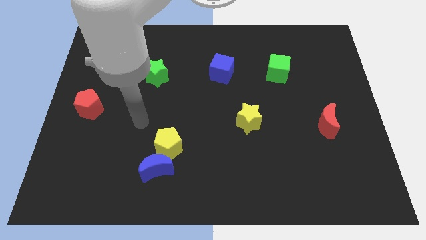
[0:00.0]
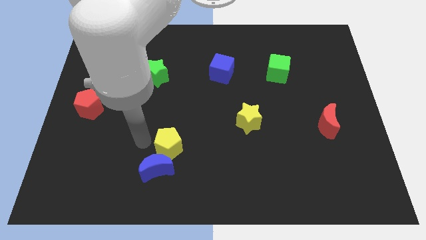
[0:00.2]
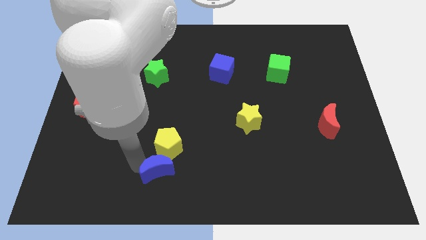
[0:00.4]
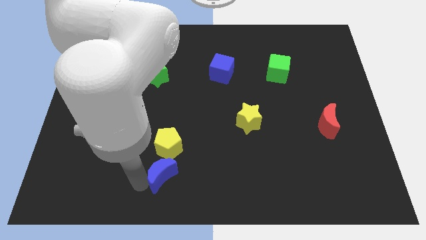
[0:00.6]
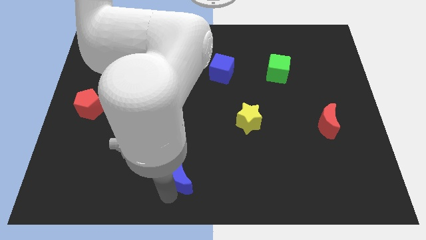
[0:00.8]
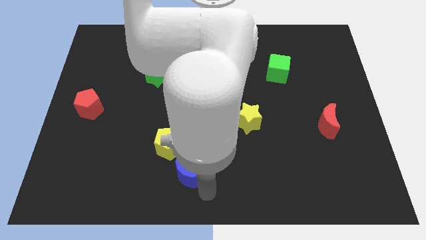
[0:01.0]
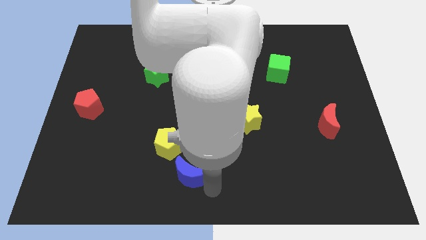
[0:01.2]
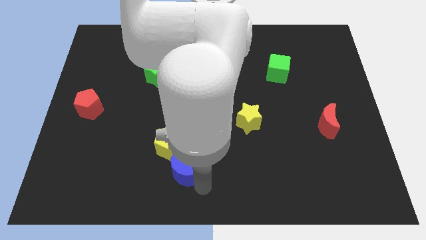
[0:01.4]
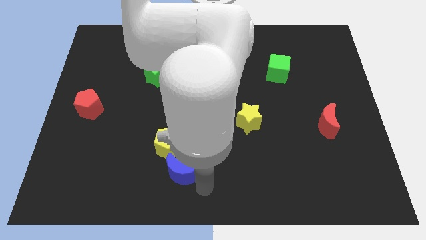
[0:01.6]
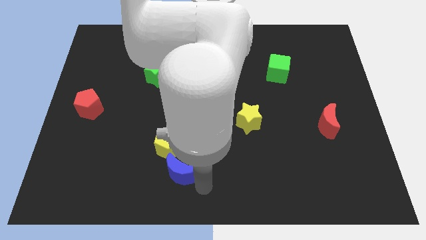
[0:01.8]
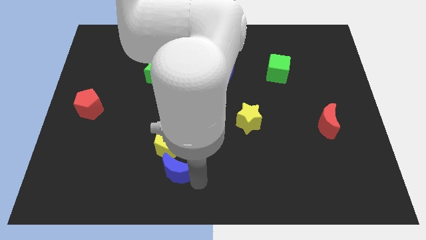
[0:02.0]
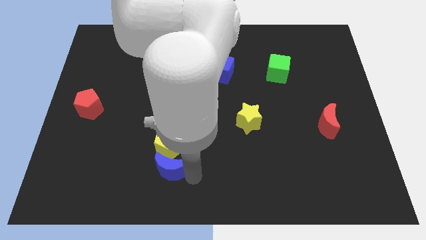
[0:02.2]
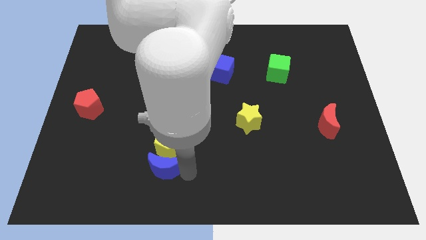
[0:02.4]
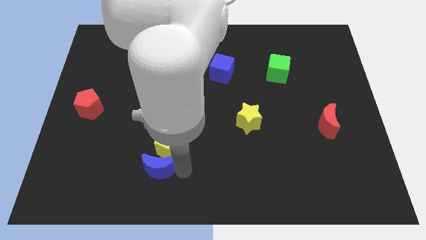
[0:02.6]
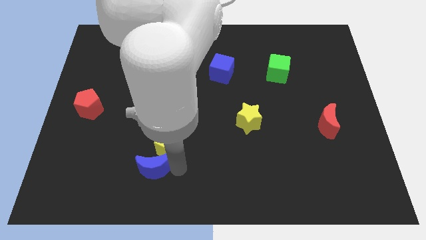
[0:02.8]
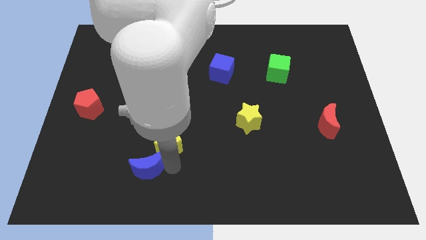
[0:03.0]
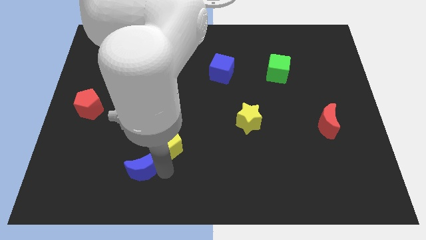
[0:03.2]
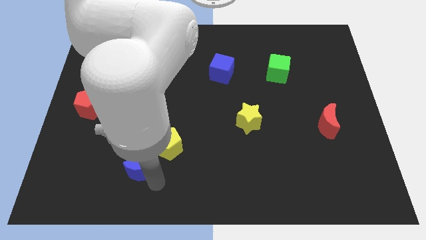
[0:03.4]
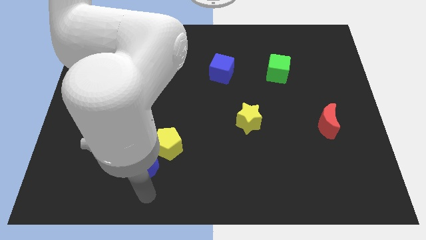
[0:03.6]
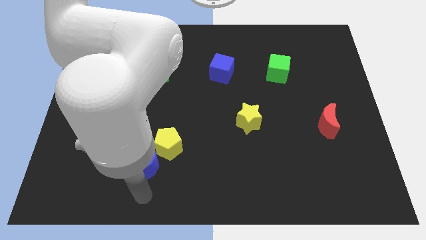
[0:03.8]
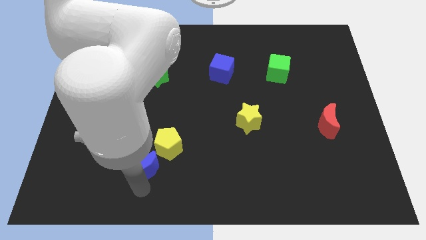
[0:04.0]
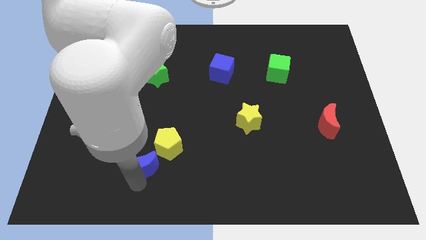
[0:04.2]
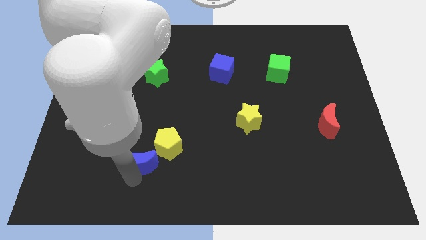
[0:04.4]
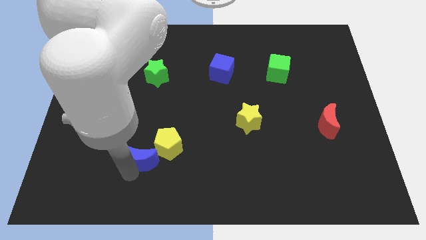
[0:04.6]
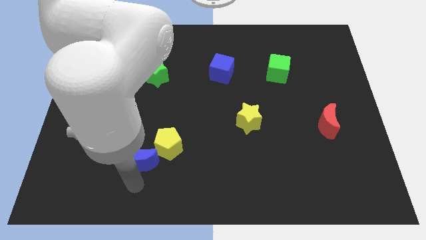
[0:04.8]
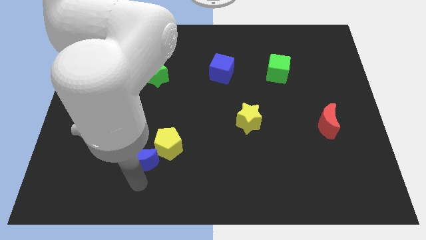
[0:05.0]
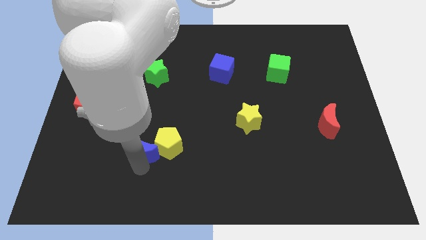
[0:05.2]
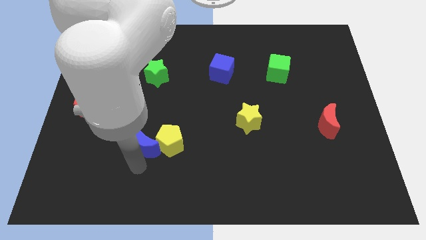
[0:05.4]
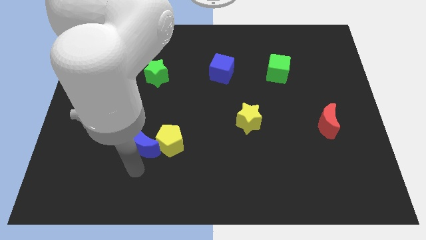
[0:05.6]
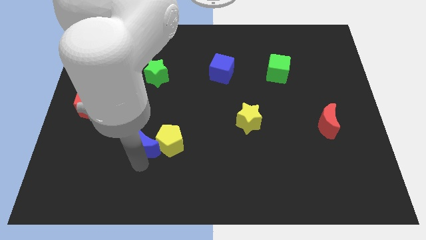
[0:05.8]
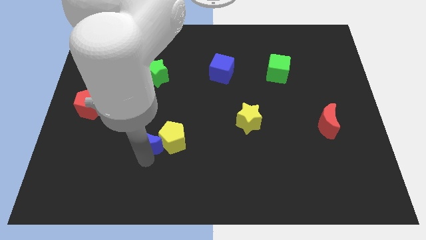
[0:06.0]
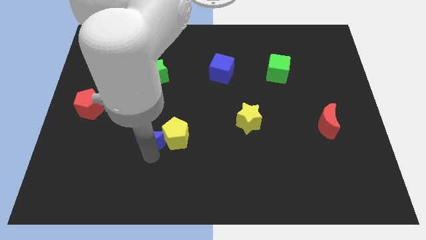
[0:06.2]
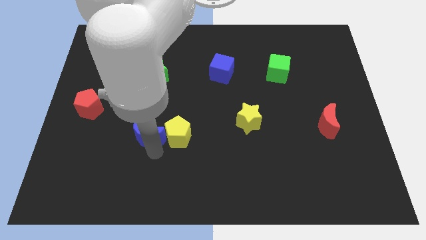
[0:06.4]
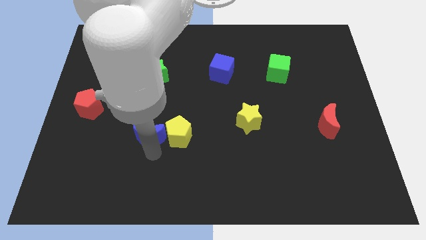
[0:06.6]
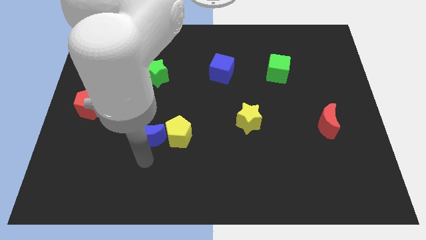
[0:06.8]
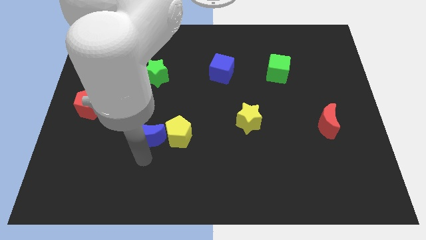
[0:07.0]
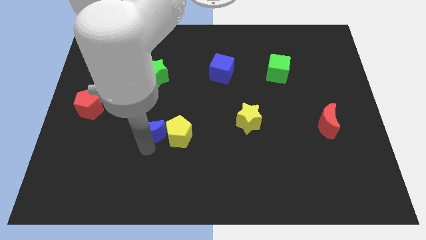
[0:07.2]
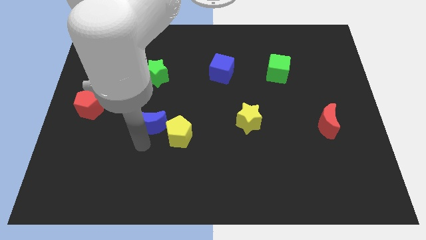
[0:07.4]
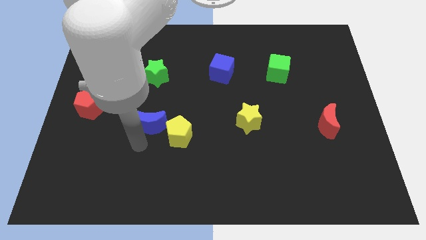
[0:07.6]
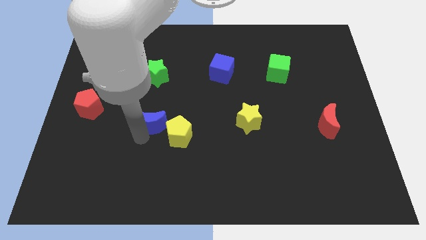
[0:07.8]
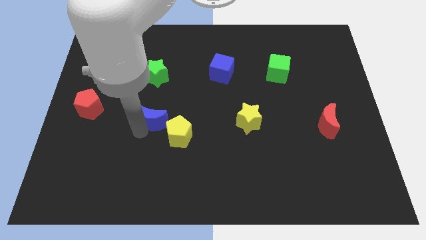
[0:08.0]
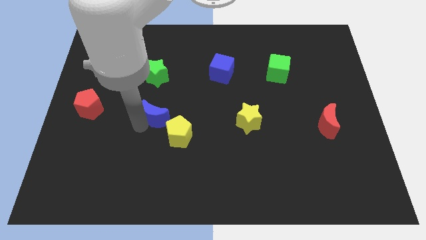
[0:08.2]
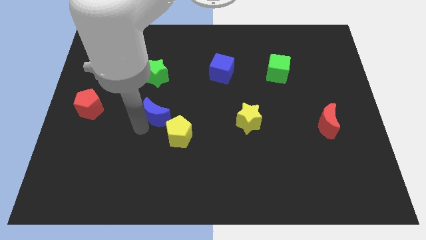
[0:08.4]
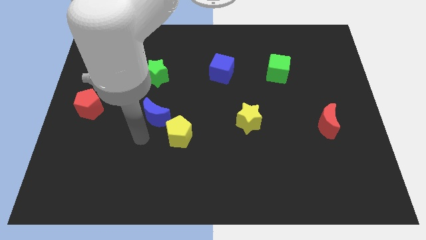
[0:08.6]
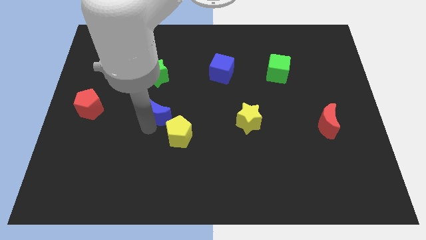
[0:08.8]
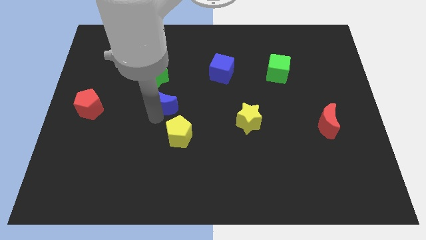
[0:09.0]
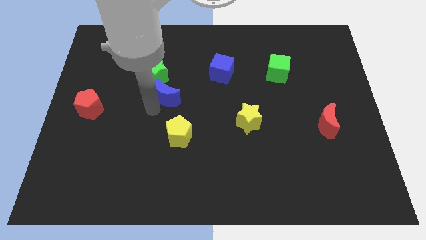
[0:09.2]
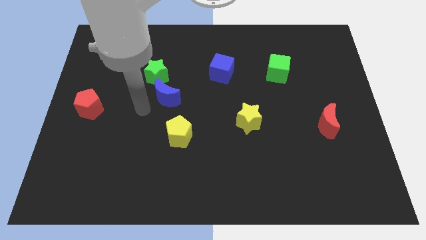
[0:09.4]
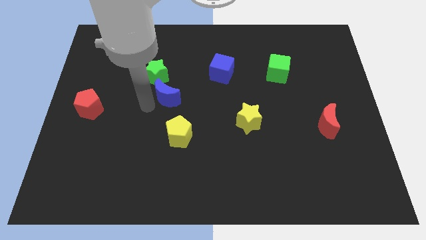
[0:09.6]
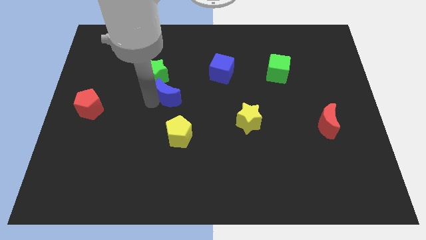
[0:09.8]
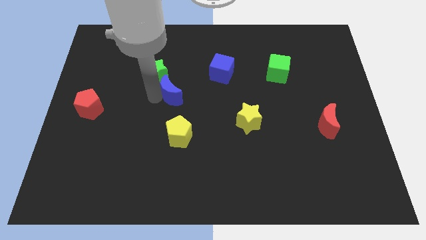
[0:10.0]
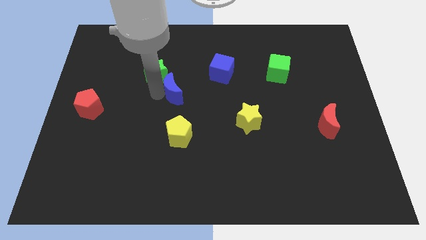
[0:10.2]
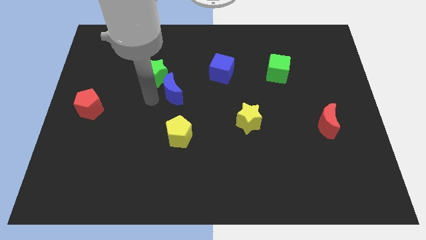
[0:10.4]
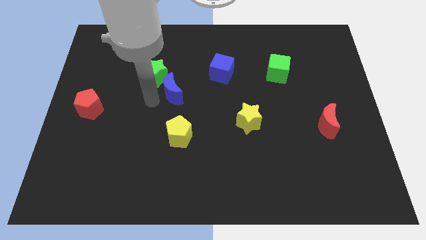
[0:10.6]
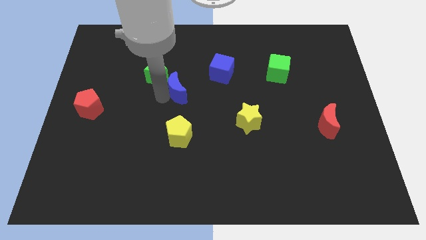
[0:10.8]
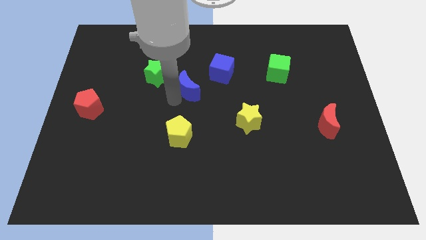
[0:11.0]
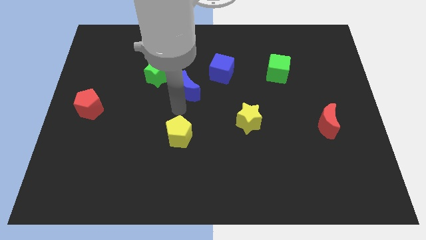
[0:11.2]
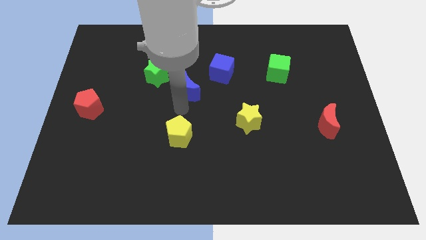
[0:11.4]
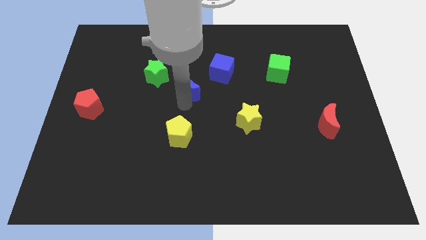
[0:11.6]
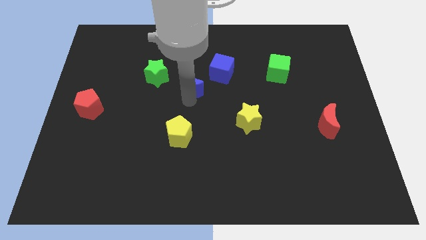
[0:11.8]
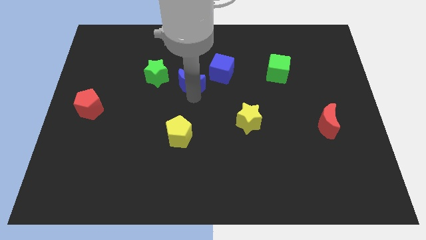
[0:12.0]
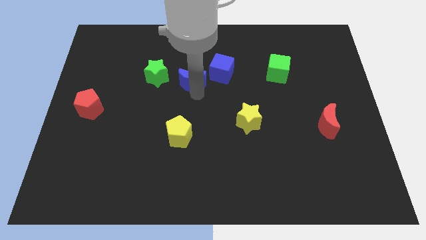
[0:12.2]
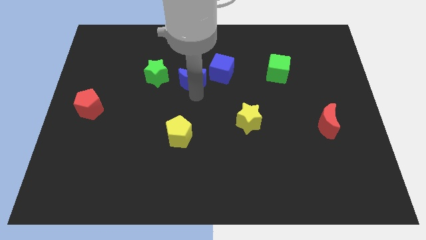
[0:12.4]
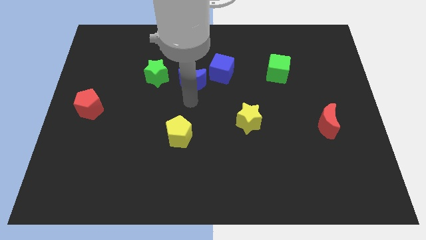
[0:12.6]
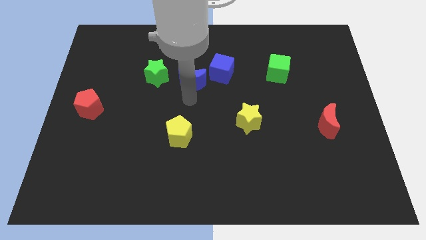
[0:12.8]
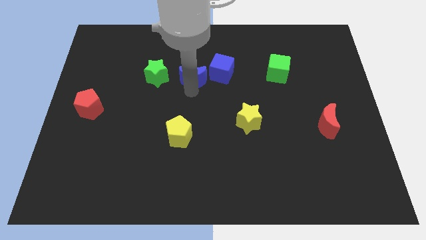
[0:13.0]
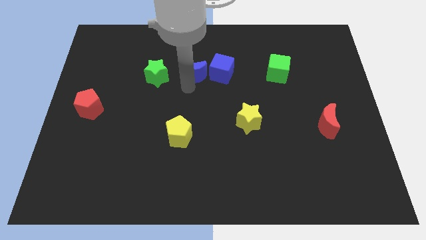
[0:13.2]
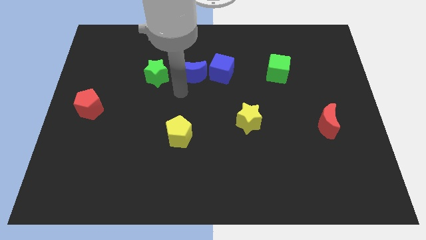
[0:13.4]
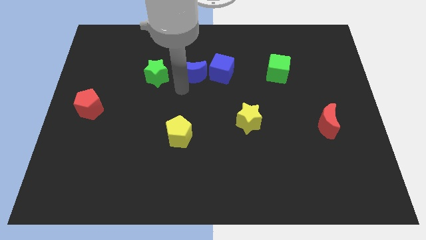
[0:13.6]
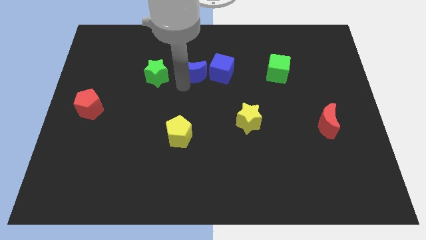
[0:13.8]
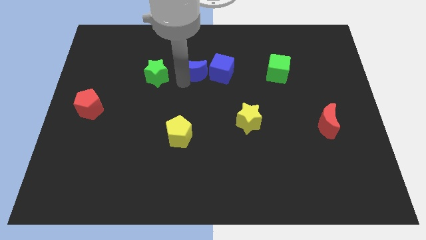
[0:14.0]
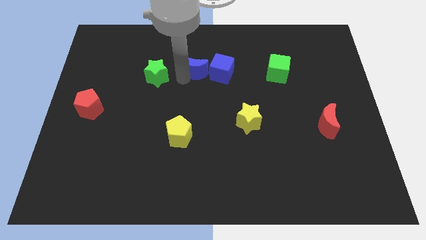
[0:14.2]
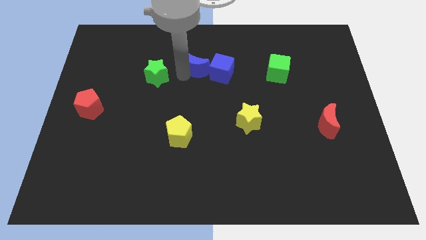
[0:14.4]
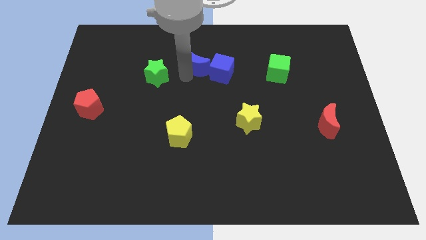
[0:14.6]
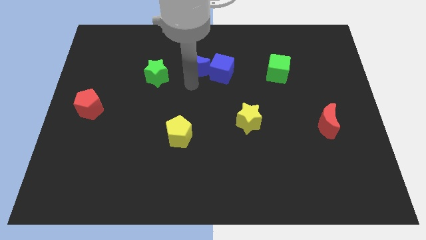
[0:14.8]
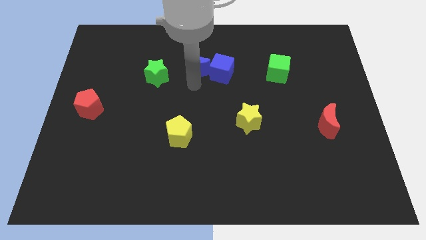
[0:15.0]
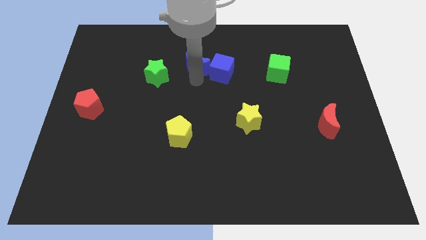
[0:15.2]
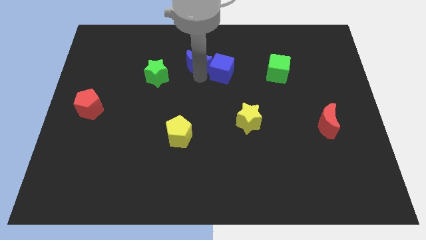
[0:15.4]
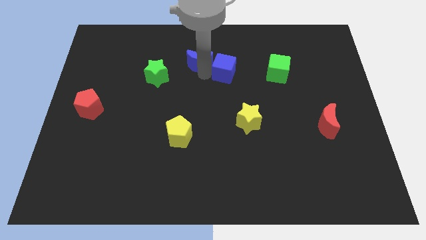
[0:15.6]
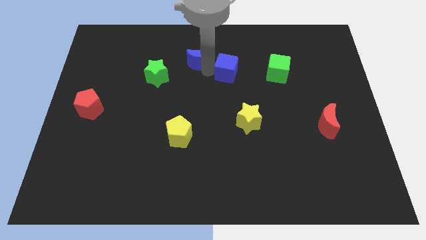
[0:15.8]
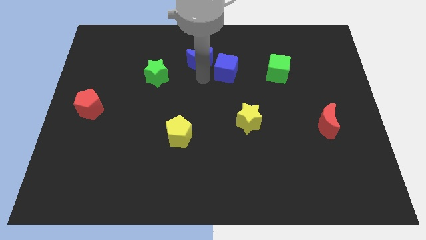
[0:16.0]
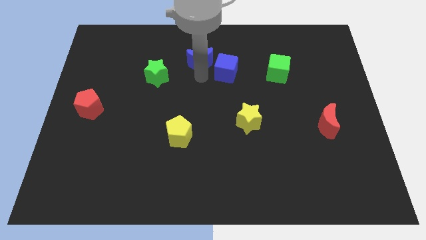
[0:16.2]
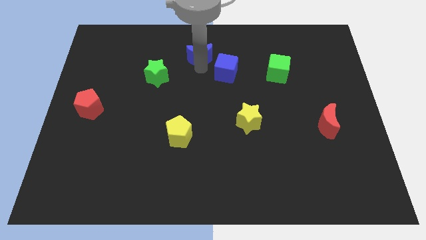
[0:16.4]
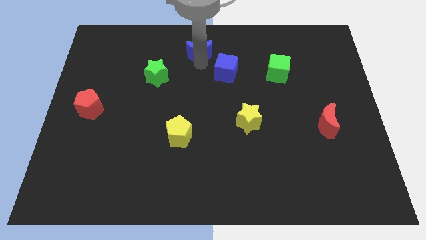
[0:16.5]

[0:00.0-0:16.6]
push the blue moon to the towards your base
